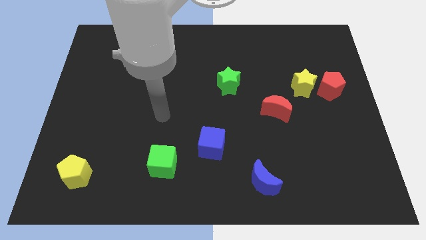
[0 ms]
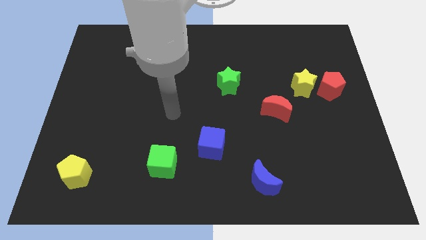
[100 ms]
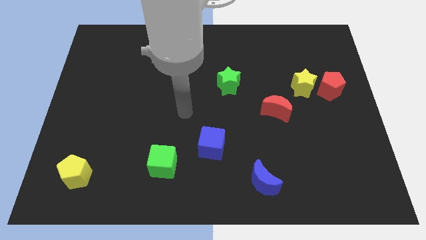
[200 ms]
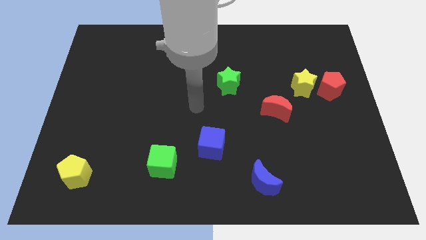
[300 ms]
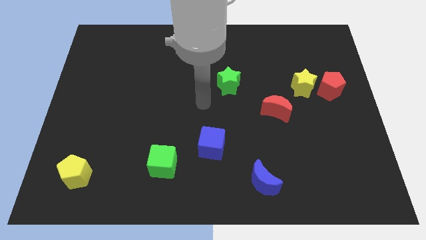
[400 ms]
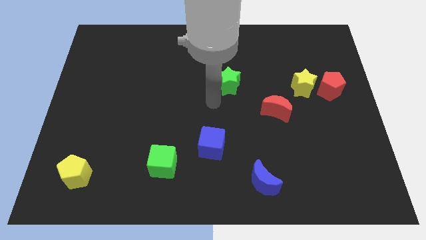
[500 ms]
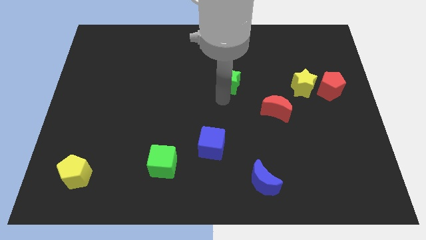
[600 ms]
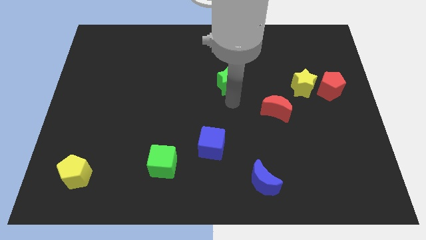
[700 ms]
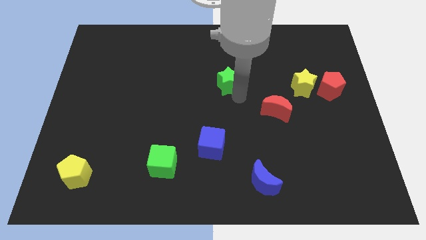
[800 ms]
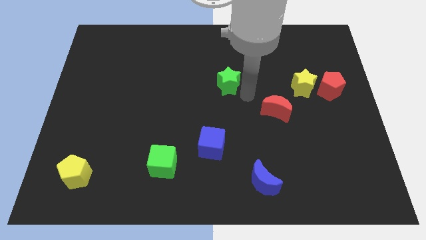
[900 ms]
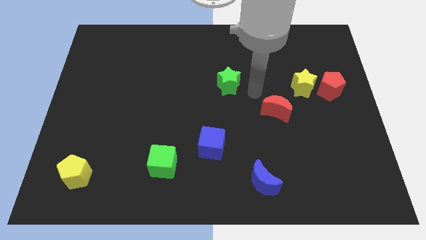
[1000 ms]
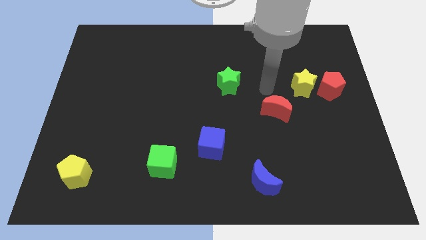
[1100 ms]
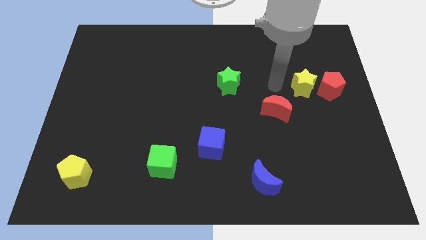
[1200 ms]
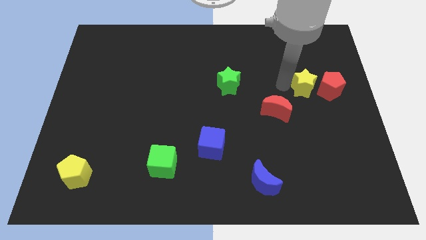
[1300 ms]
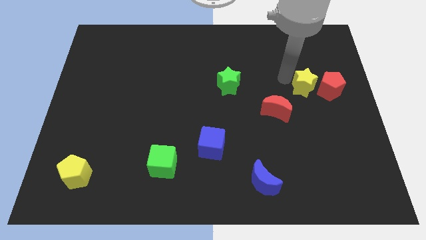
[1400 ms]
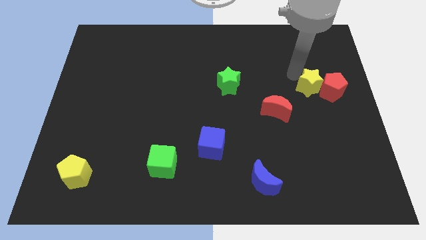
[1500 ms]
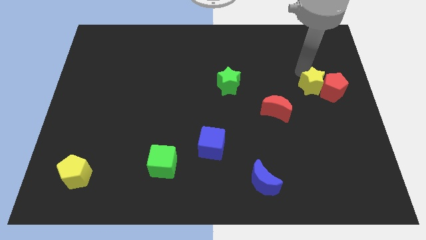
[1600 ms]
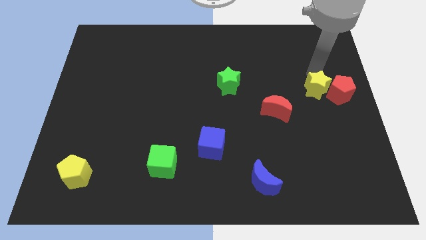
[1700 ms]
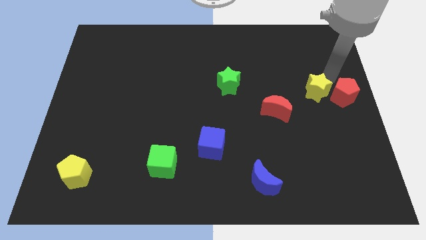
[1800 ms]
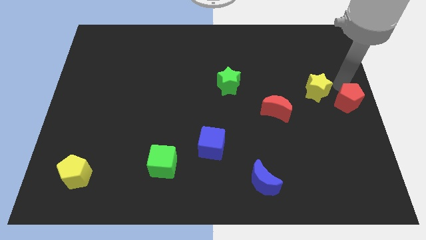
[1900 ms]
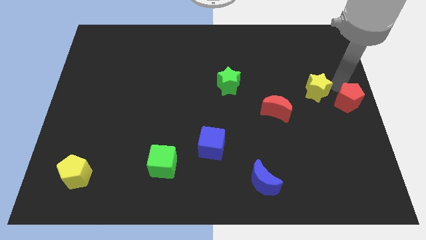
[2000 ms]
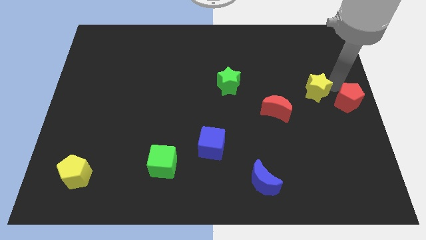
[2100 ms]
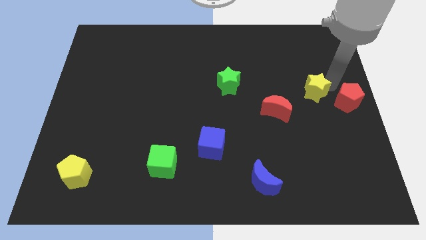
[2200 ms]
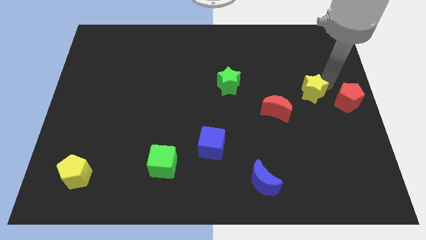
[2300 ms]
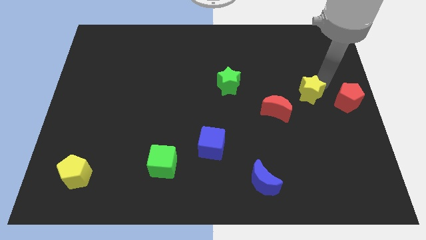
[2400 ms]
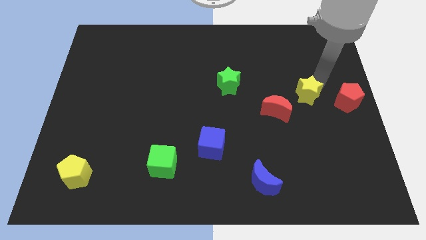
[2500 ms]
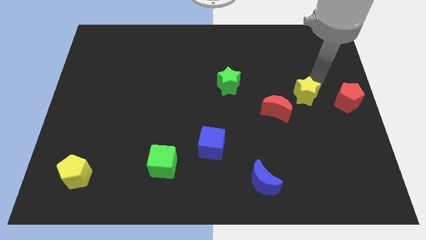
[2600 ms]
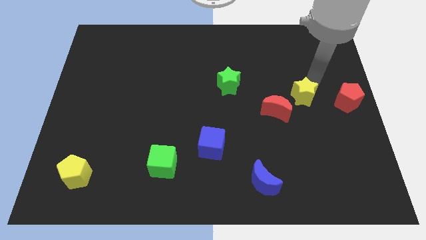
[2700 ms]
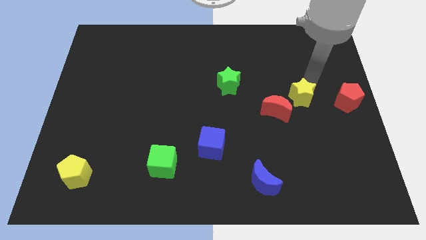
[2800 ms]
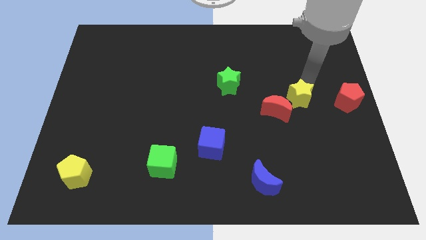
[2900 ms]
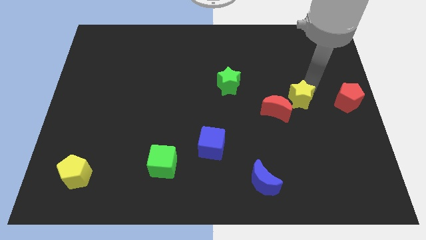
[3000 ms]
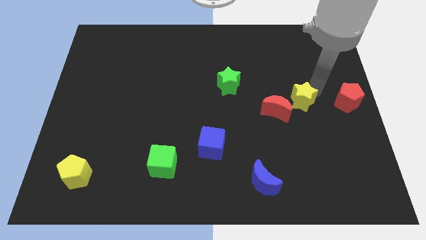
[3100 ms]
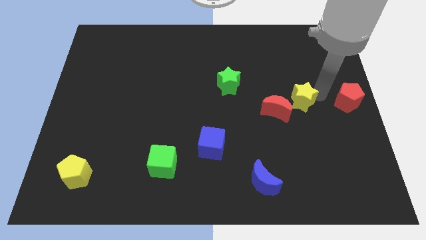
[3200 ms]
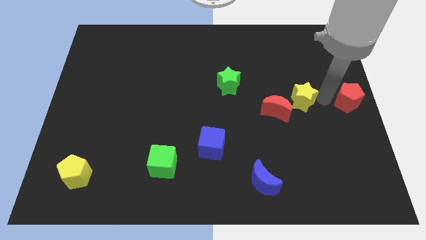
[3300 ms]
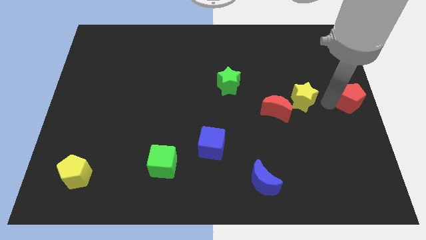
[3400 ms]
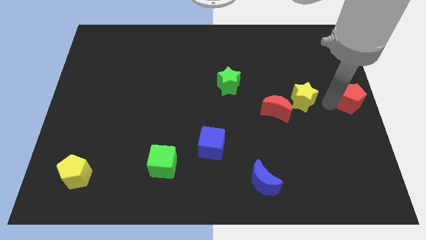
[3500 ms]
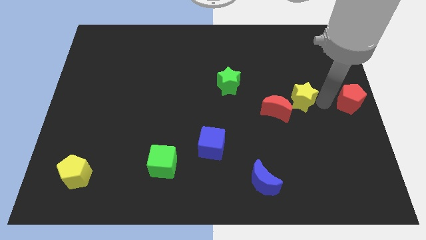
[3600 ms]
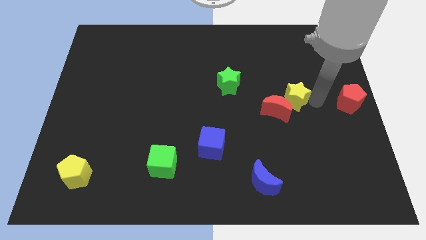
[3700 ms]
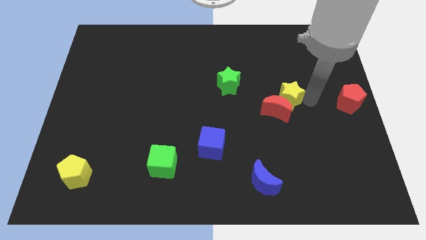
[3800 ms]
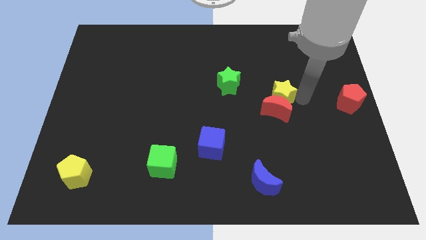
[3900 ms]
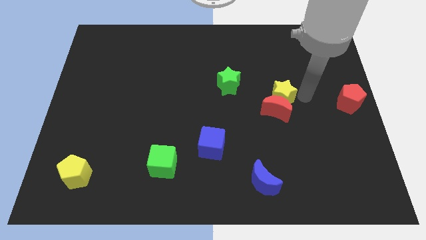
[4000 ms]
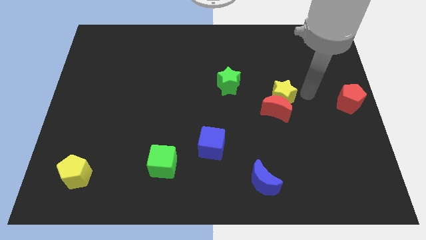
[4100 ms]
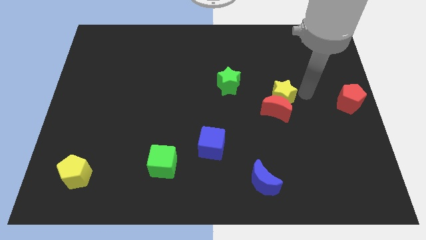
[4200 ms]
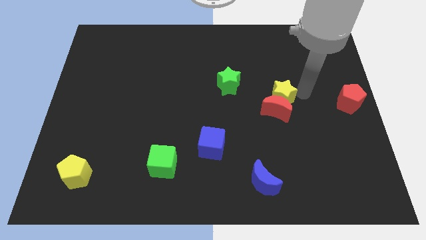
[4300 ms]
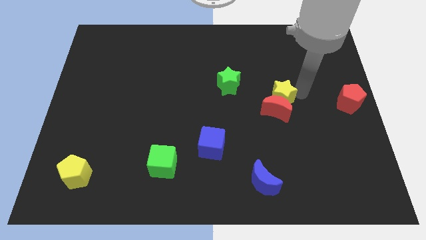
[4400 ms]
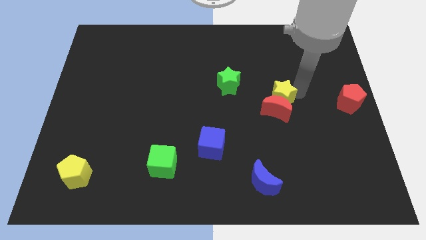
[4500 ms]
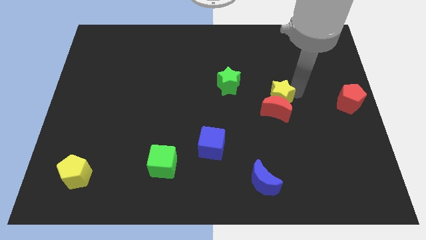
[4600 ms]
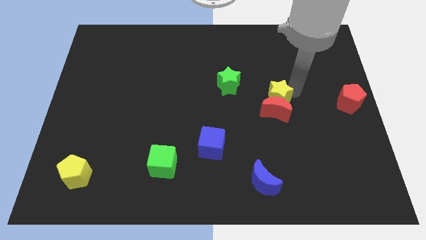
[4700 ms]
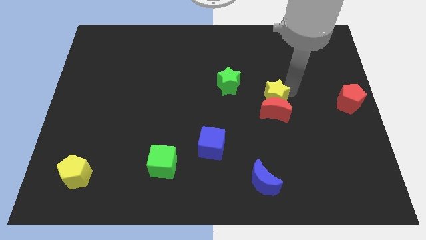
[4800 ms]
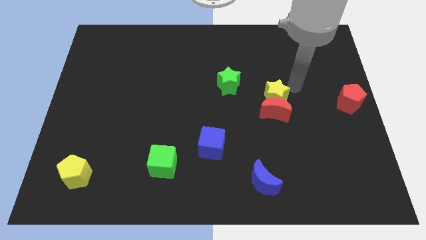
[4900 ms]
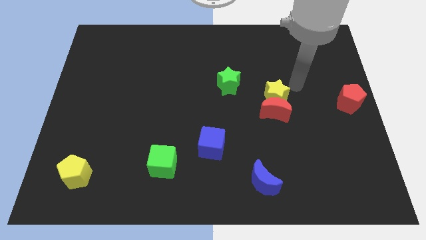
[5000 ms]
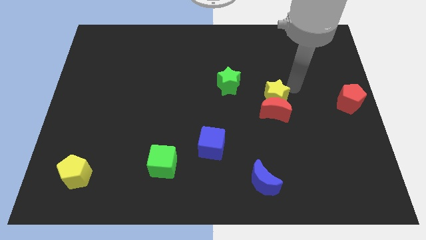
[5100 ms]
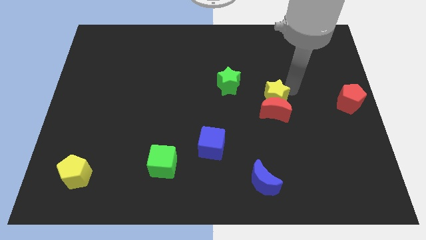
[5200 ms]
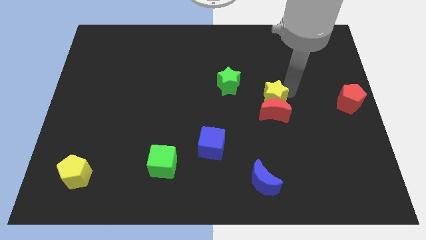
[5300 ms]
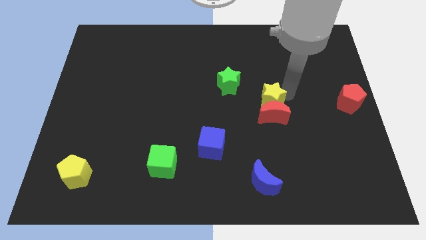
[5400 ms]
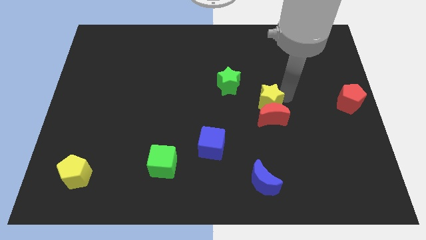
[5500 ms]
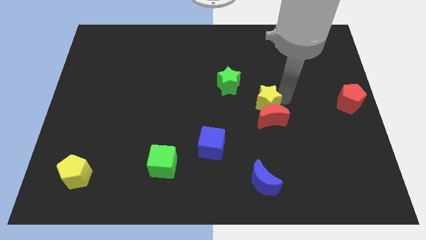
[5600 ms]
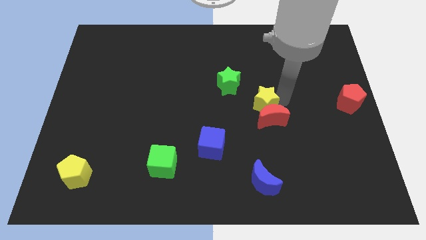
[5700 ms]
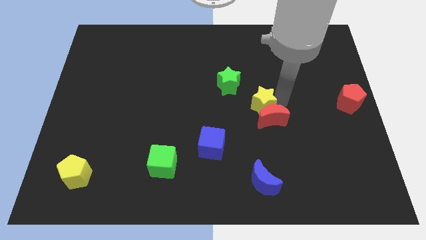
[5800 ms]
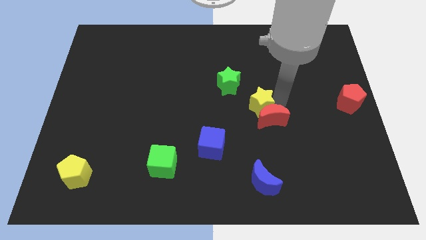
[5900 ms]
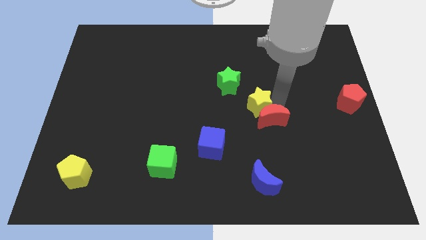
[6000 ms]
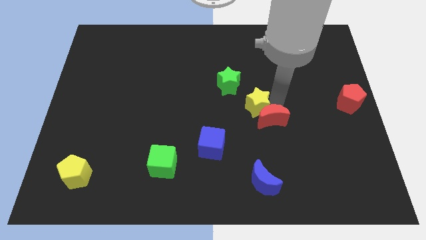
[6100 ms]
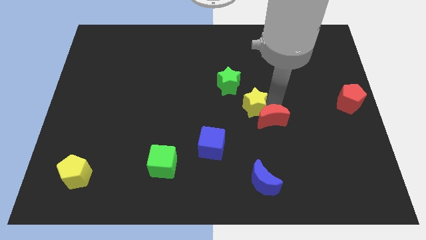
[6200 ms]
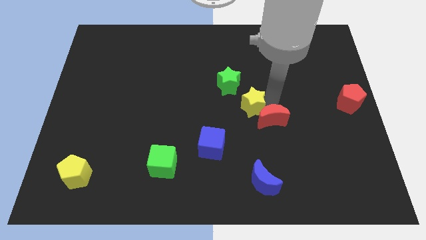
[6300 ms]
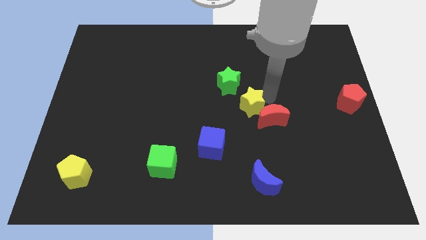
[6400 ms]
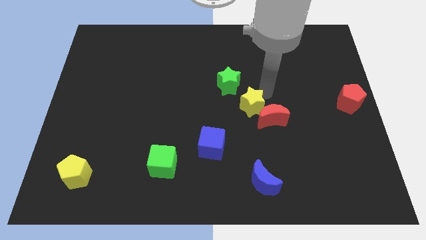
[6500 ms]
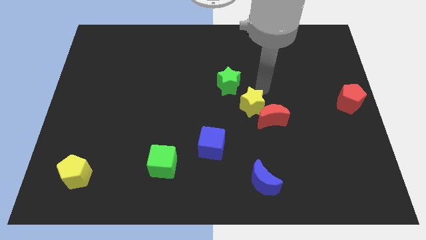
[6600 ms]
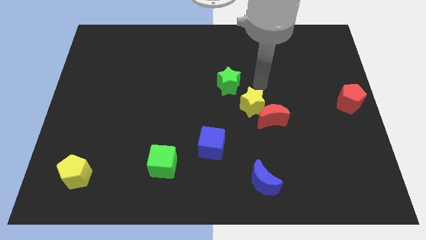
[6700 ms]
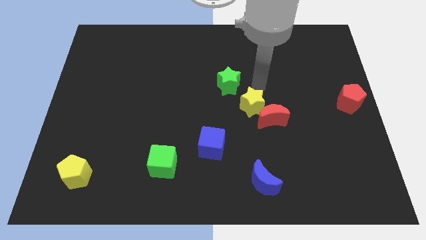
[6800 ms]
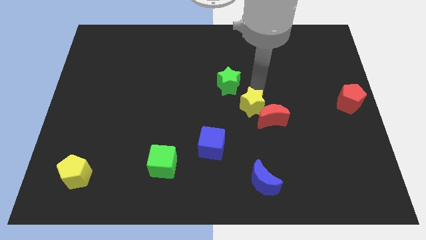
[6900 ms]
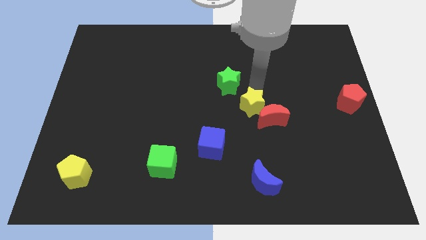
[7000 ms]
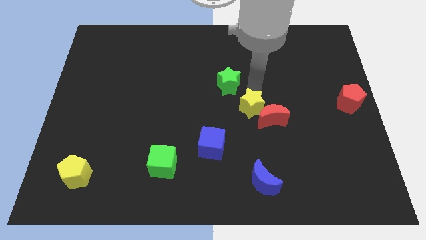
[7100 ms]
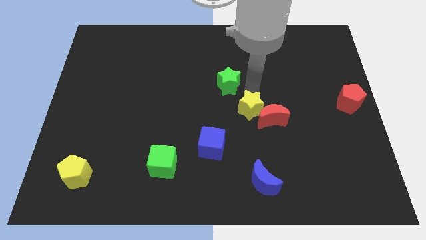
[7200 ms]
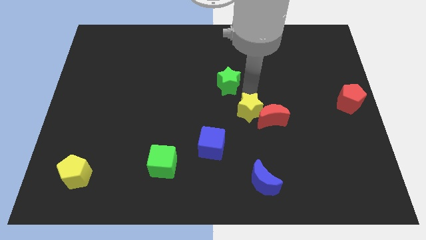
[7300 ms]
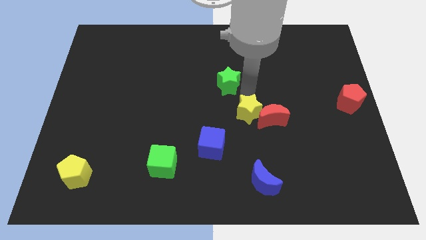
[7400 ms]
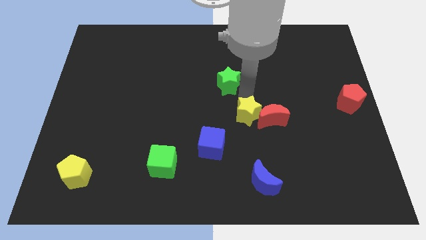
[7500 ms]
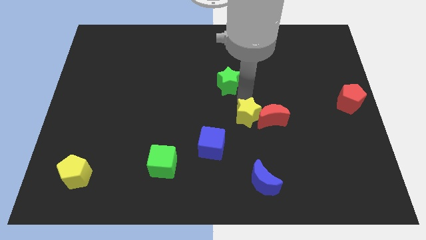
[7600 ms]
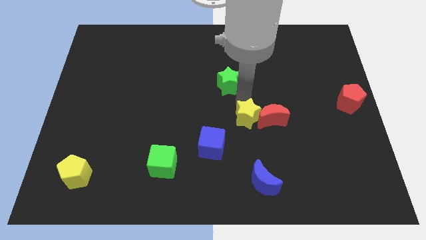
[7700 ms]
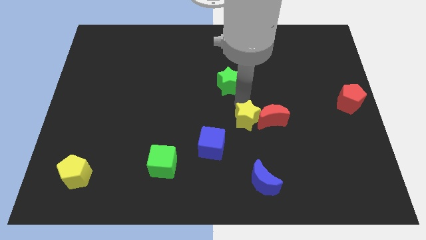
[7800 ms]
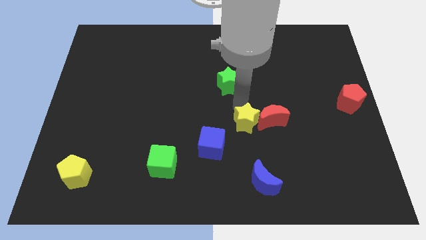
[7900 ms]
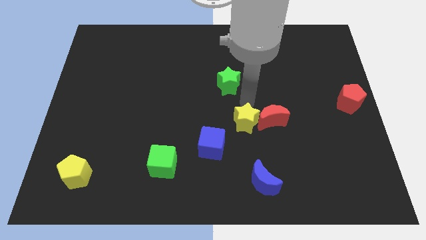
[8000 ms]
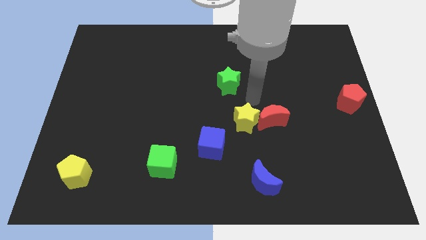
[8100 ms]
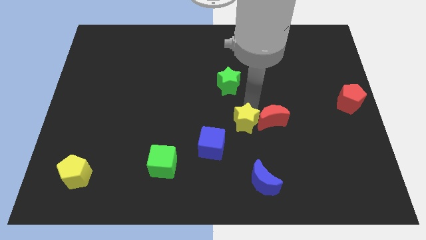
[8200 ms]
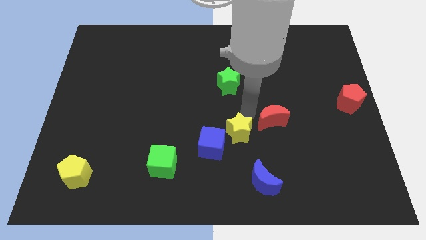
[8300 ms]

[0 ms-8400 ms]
move the yellow star downwards and then to the left
